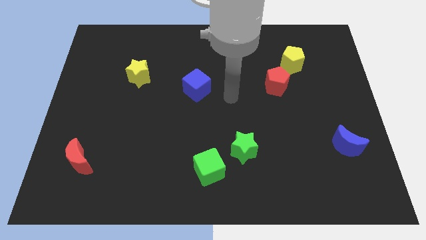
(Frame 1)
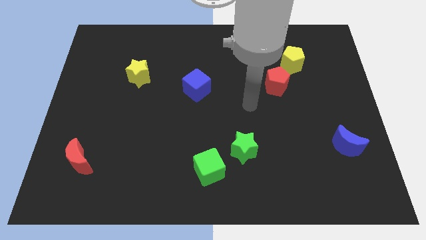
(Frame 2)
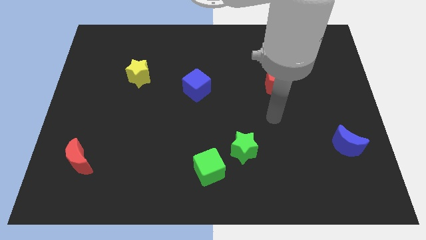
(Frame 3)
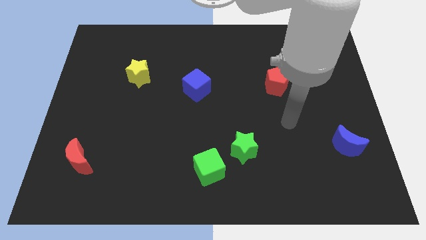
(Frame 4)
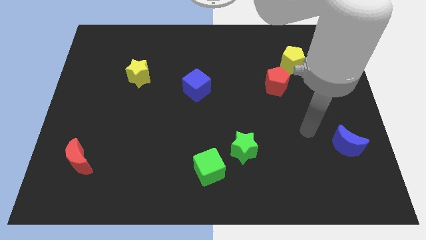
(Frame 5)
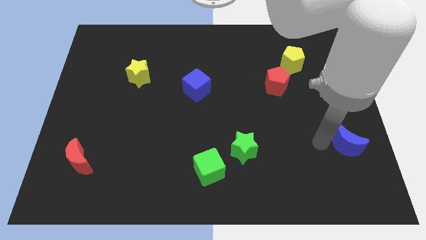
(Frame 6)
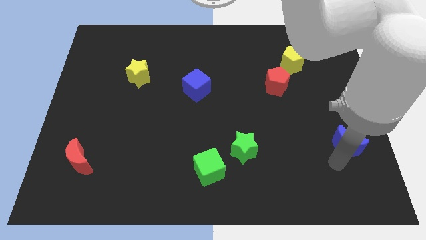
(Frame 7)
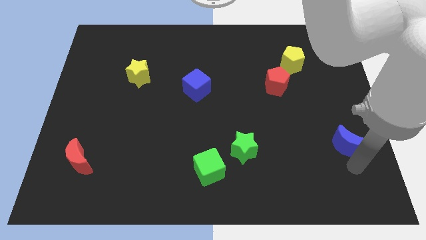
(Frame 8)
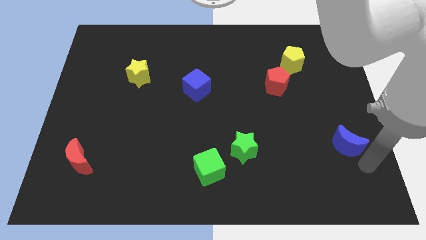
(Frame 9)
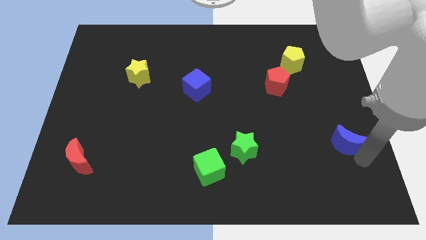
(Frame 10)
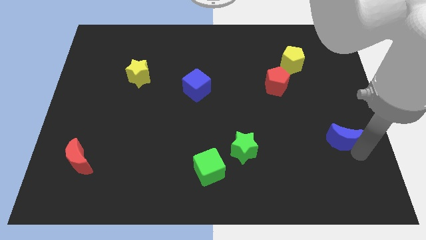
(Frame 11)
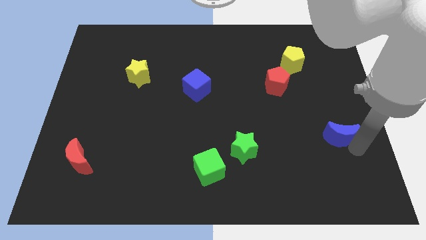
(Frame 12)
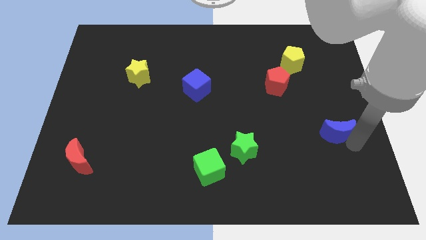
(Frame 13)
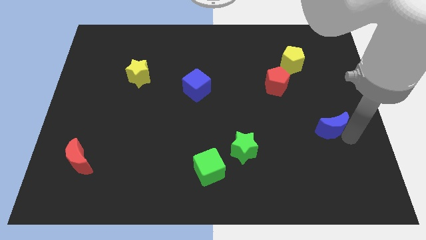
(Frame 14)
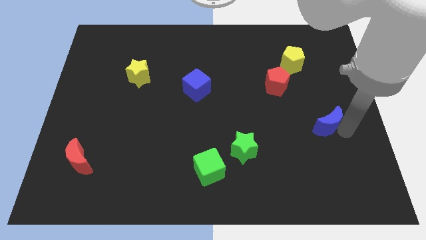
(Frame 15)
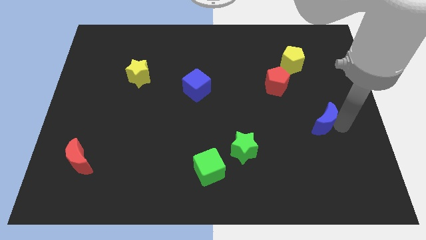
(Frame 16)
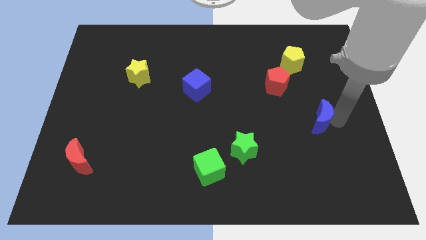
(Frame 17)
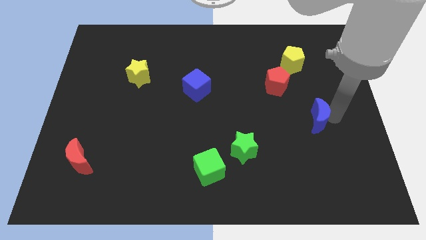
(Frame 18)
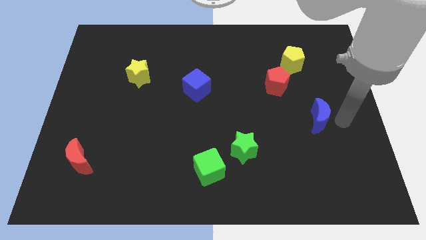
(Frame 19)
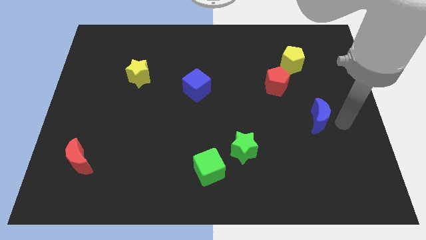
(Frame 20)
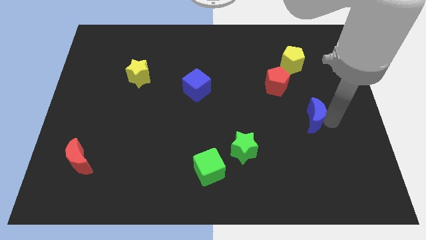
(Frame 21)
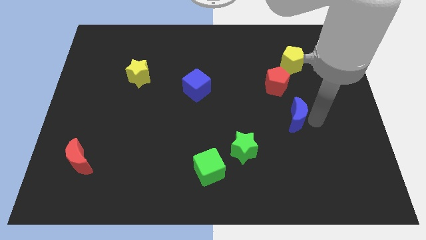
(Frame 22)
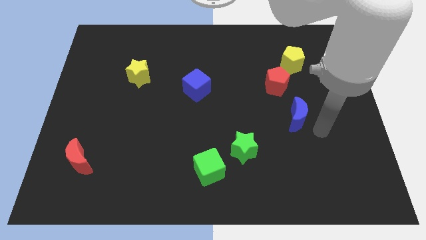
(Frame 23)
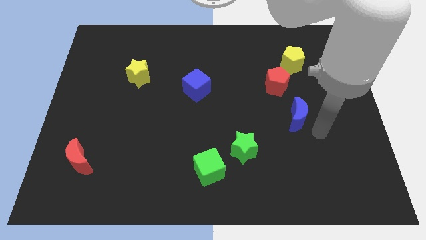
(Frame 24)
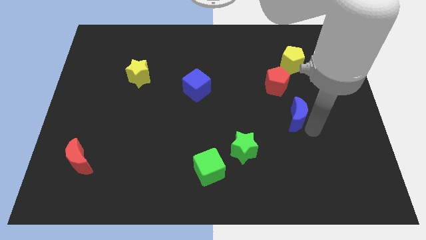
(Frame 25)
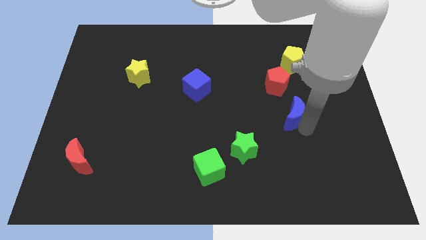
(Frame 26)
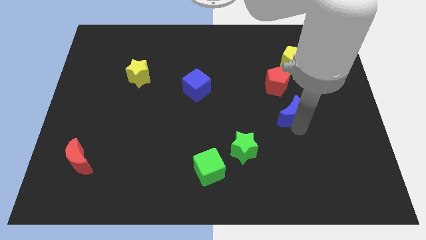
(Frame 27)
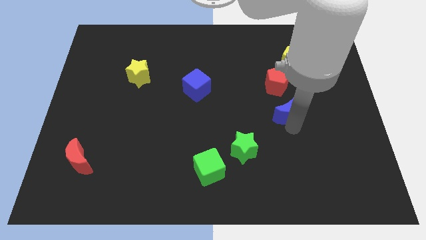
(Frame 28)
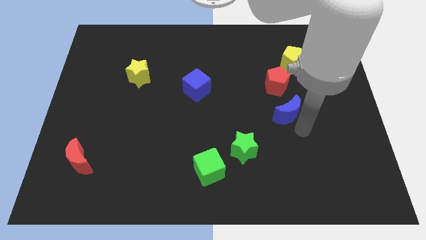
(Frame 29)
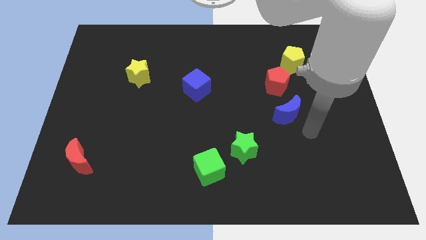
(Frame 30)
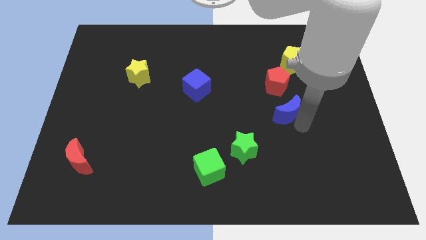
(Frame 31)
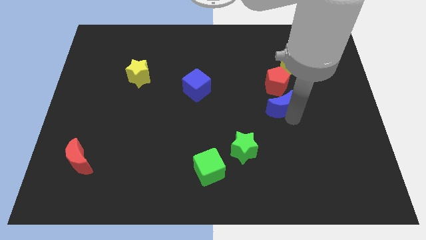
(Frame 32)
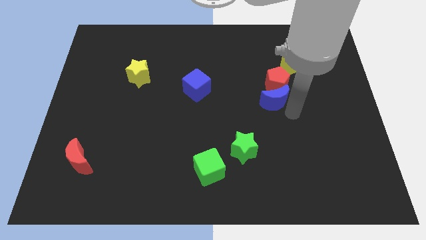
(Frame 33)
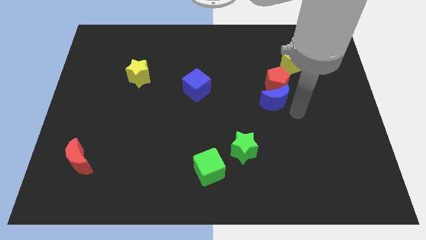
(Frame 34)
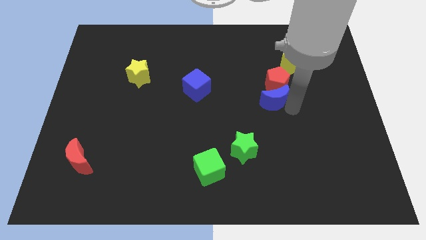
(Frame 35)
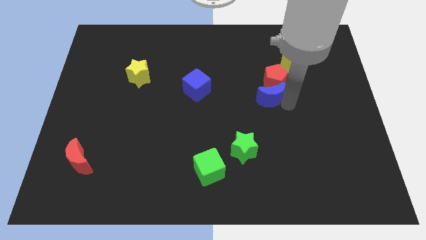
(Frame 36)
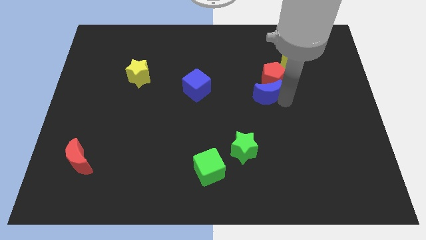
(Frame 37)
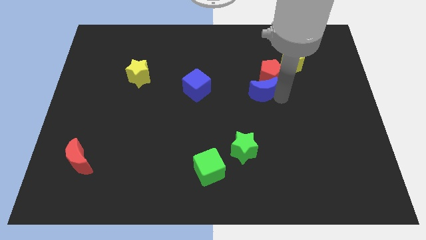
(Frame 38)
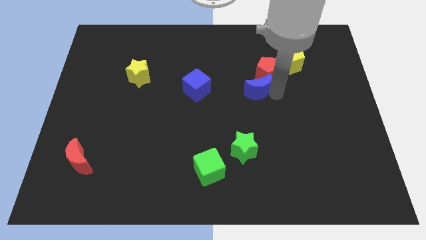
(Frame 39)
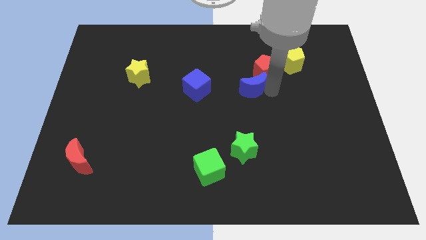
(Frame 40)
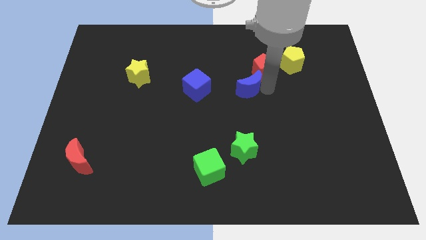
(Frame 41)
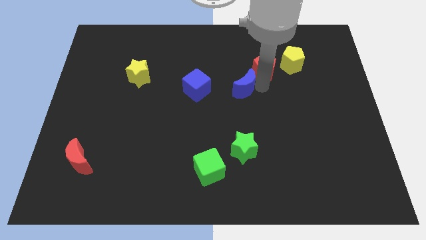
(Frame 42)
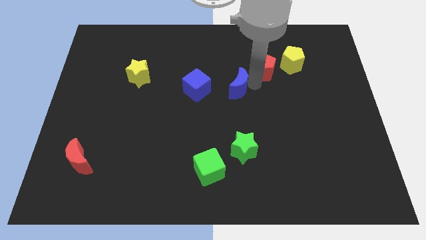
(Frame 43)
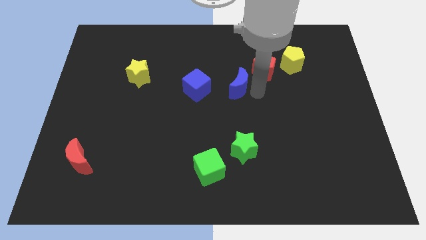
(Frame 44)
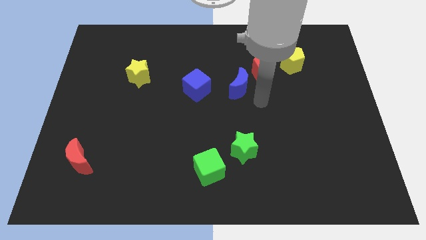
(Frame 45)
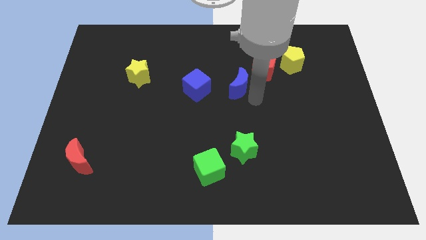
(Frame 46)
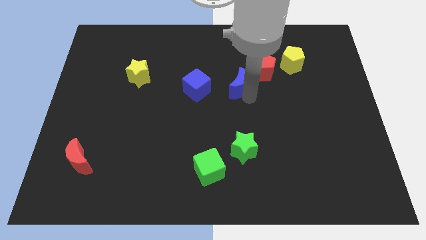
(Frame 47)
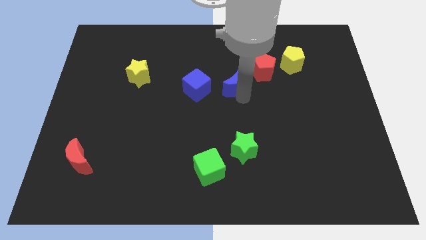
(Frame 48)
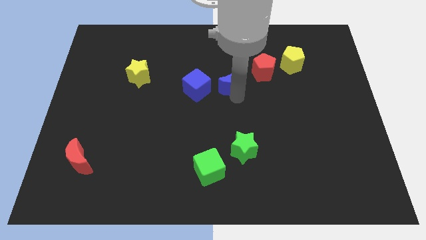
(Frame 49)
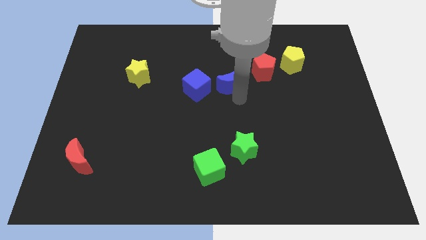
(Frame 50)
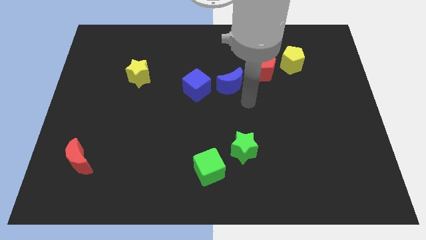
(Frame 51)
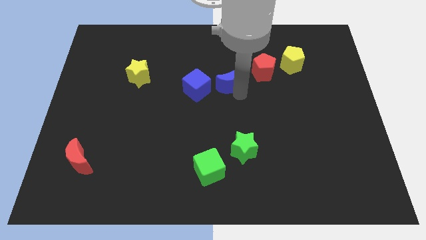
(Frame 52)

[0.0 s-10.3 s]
push the blue moon diagonally up and to the right of the blue cube

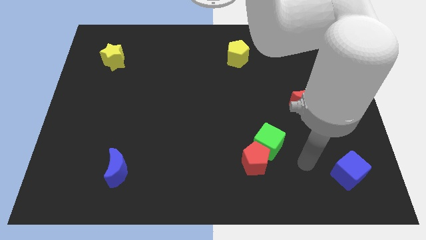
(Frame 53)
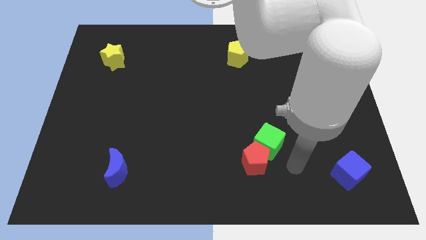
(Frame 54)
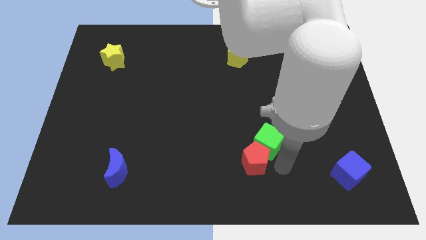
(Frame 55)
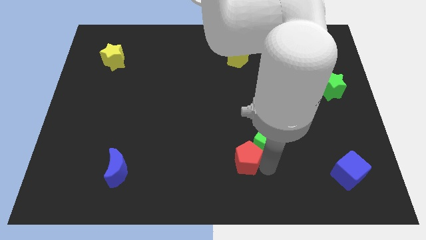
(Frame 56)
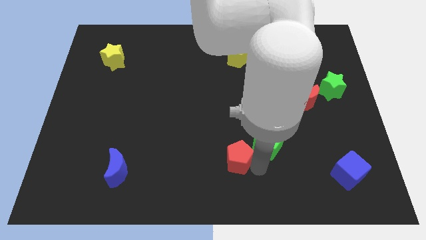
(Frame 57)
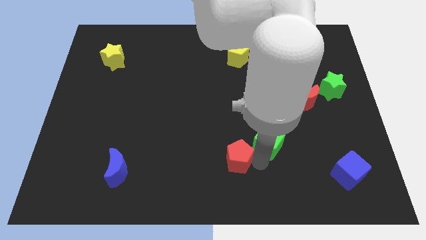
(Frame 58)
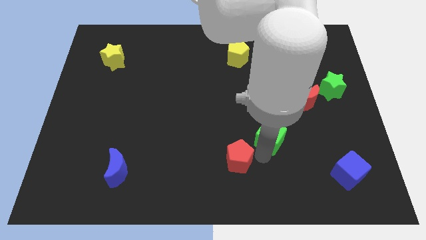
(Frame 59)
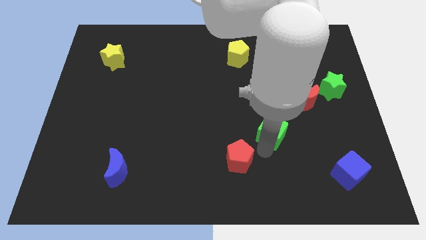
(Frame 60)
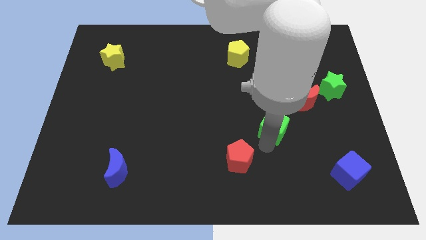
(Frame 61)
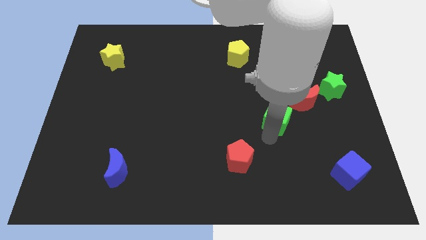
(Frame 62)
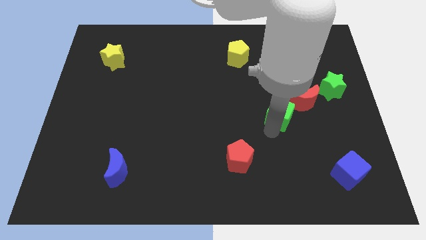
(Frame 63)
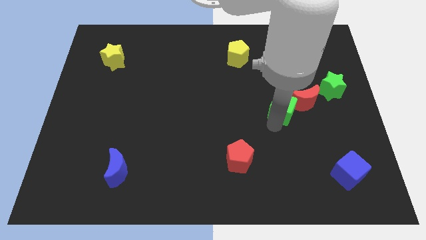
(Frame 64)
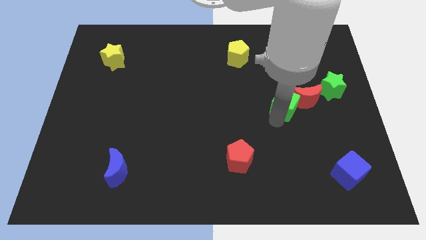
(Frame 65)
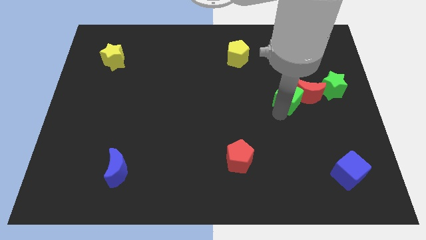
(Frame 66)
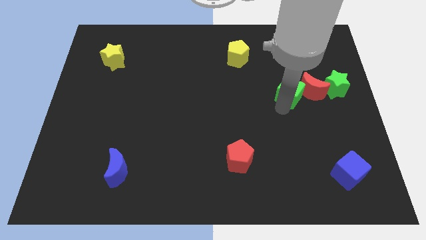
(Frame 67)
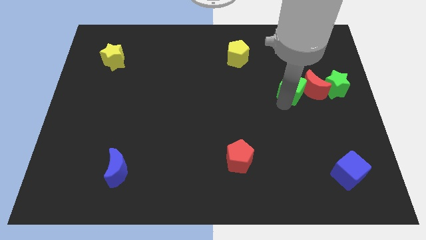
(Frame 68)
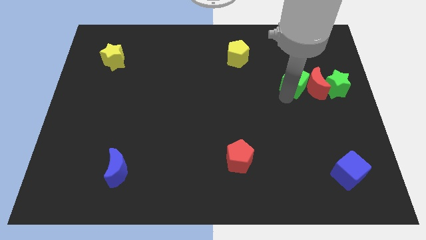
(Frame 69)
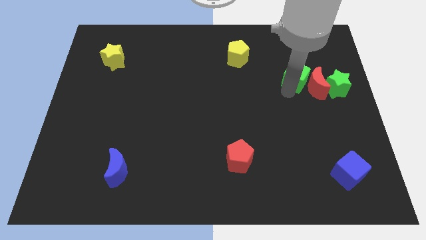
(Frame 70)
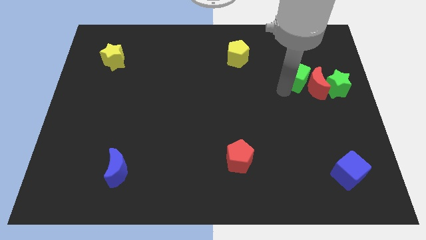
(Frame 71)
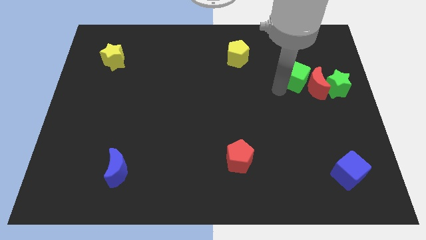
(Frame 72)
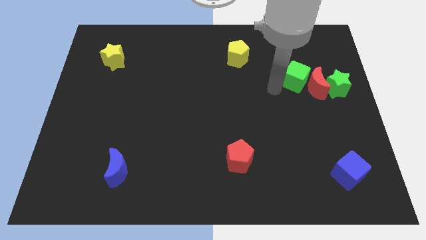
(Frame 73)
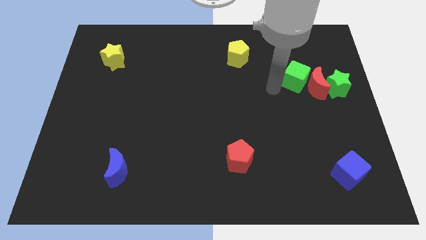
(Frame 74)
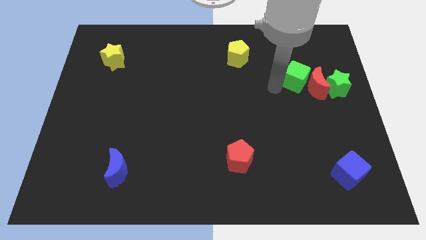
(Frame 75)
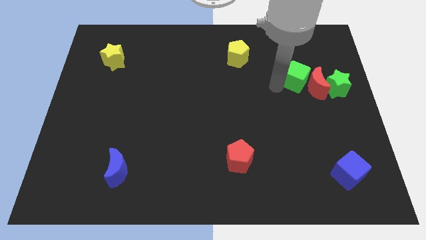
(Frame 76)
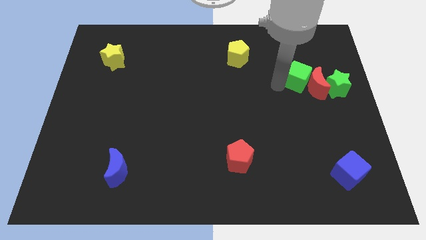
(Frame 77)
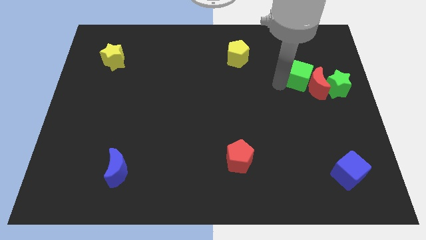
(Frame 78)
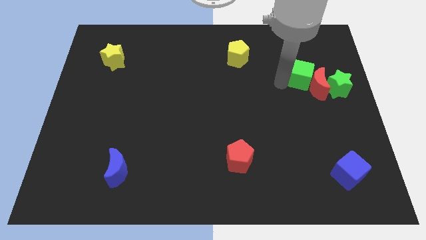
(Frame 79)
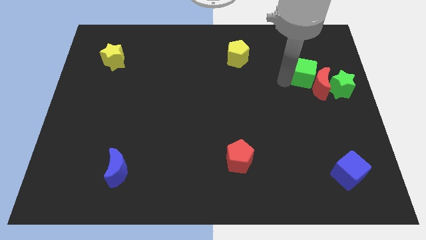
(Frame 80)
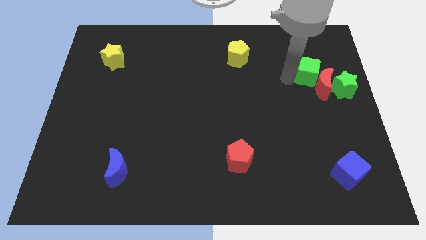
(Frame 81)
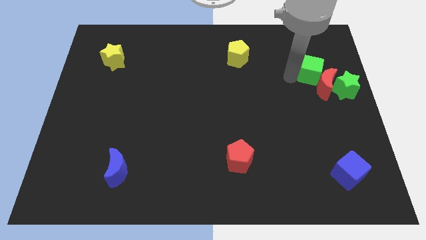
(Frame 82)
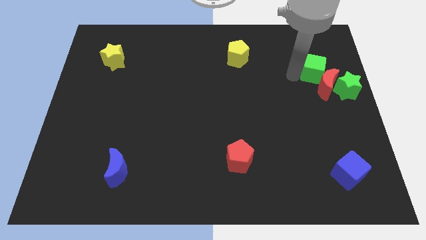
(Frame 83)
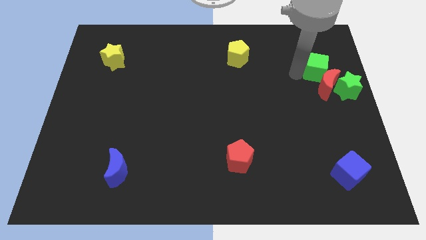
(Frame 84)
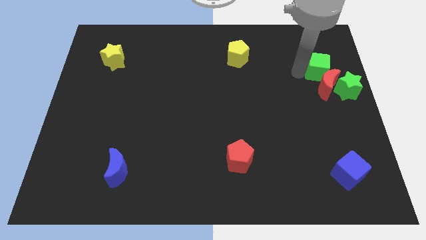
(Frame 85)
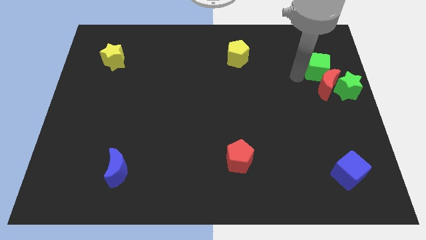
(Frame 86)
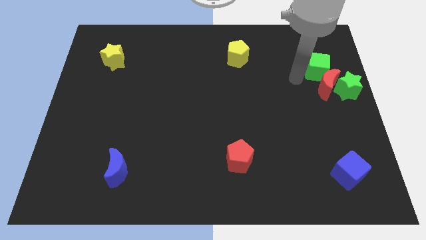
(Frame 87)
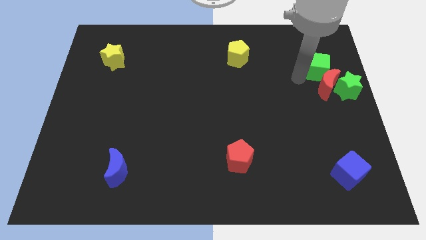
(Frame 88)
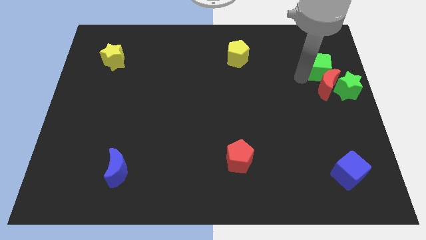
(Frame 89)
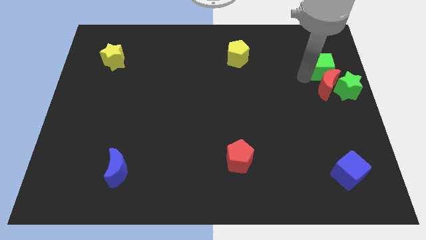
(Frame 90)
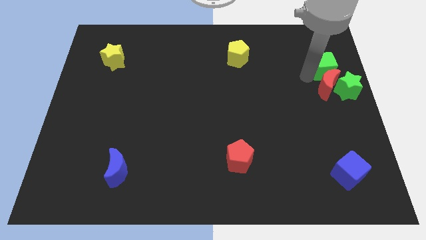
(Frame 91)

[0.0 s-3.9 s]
push the green cube to the top of the green star
